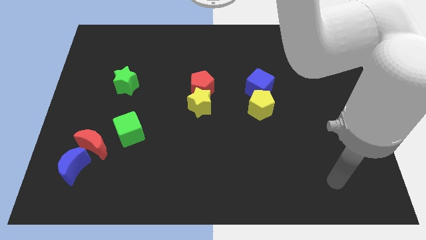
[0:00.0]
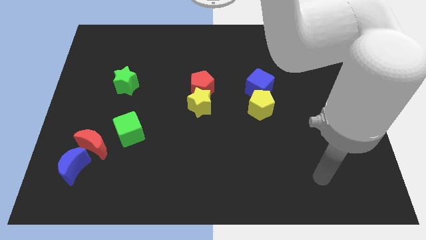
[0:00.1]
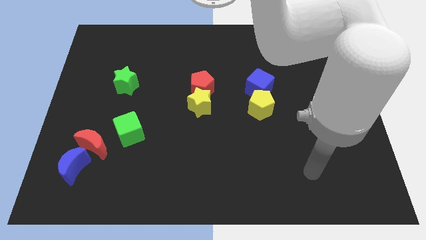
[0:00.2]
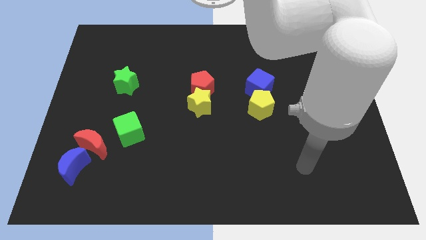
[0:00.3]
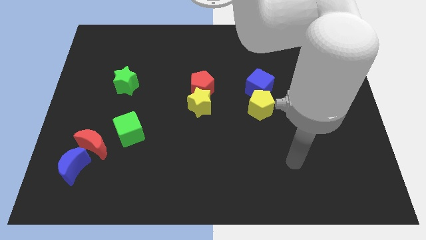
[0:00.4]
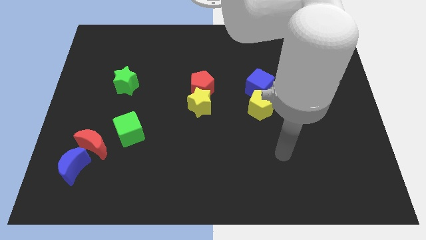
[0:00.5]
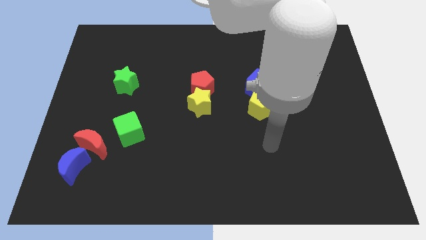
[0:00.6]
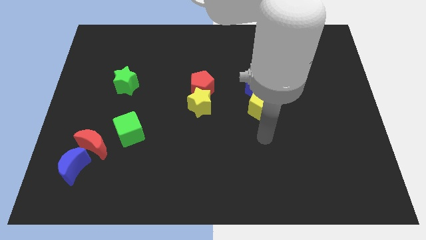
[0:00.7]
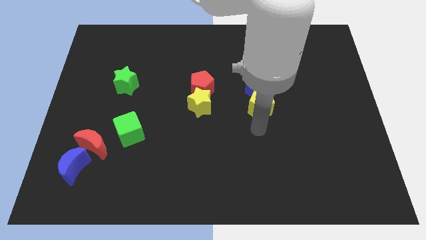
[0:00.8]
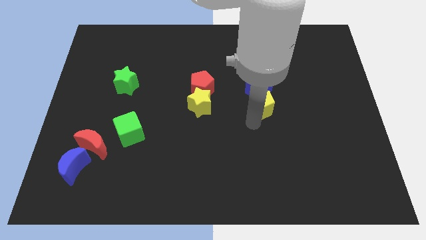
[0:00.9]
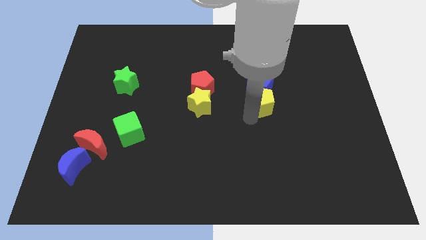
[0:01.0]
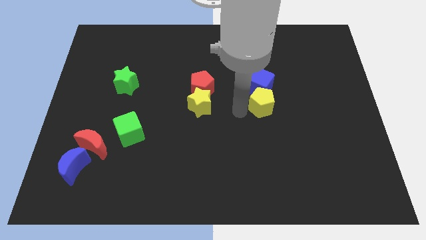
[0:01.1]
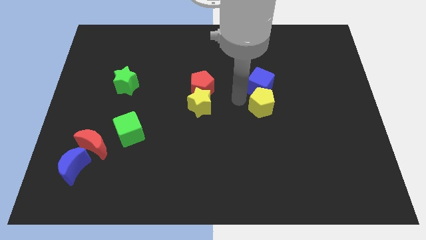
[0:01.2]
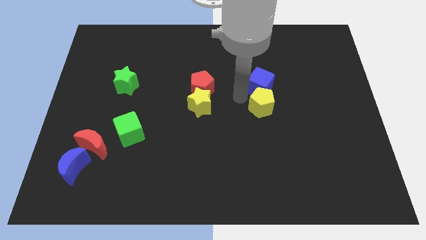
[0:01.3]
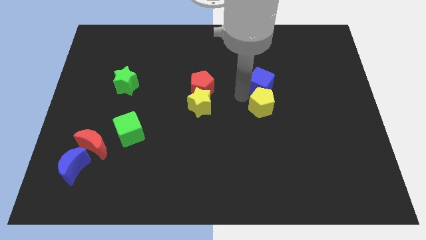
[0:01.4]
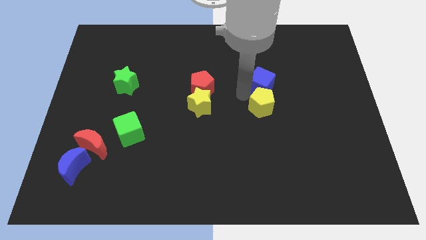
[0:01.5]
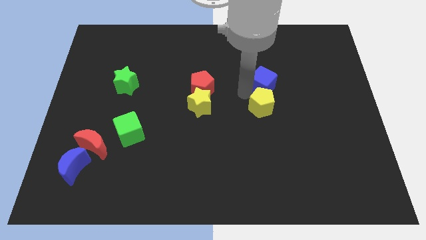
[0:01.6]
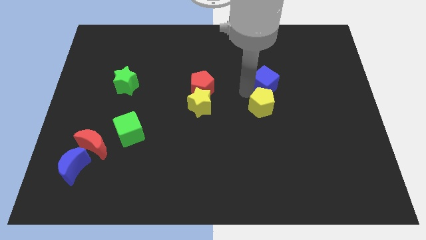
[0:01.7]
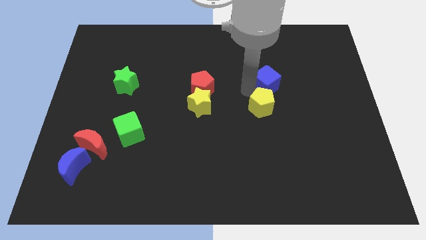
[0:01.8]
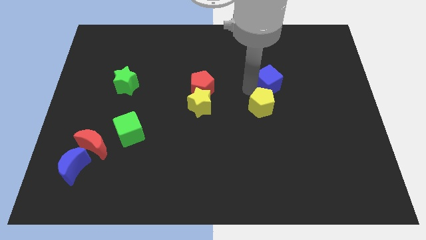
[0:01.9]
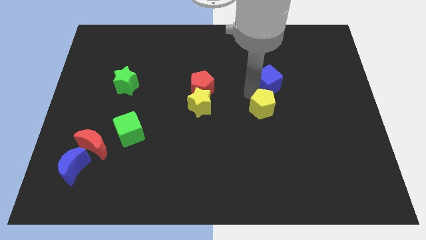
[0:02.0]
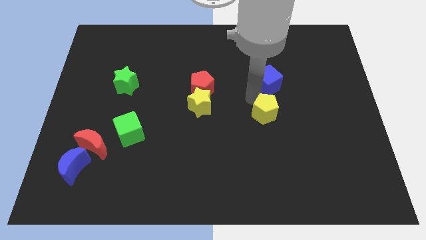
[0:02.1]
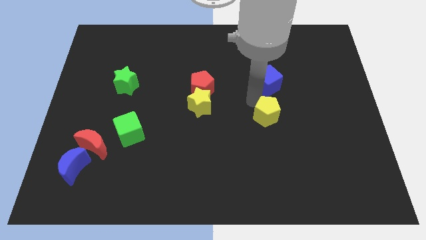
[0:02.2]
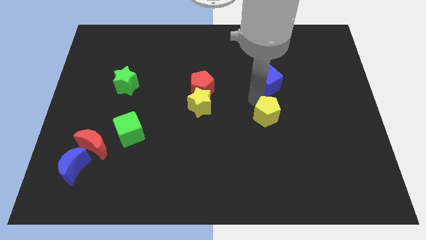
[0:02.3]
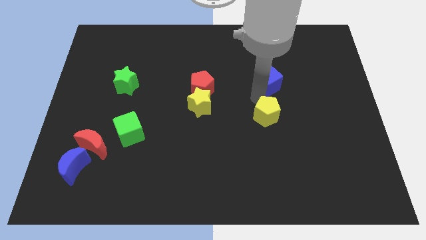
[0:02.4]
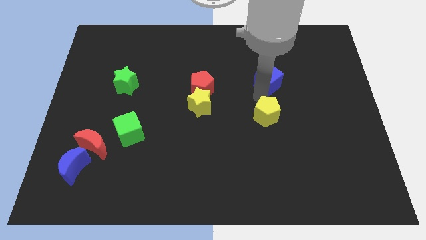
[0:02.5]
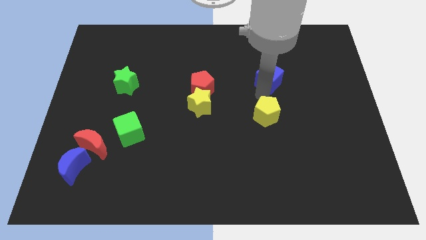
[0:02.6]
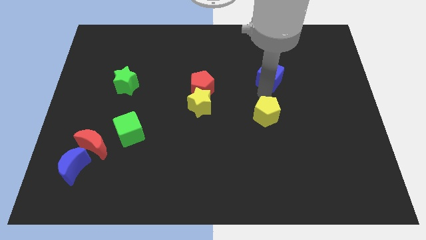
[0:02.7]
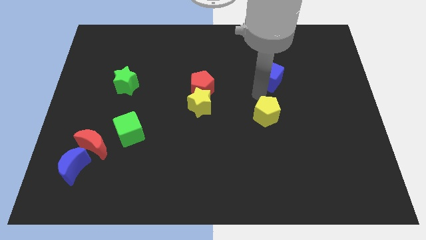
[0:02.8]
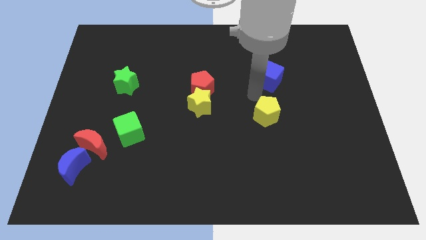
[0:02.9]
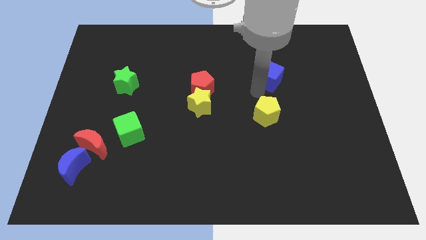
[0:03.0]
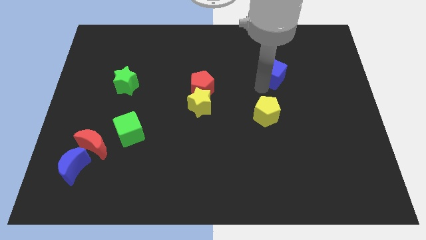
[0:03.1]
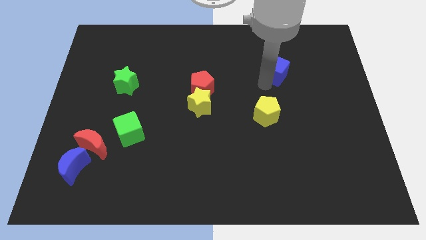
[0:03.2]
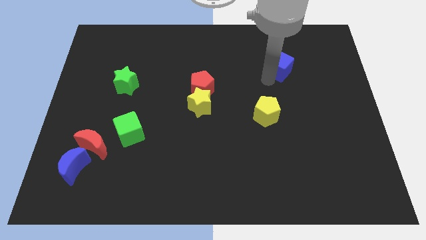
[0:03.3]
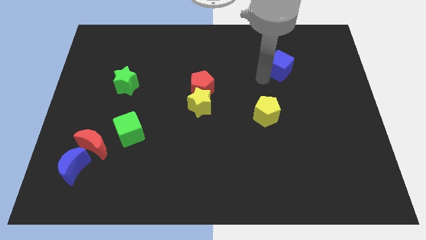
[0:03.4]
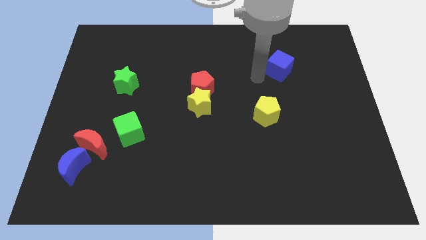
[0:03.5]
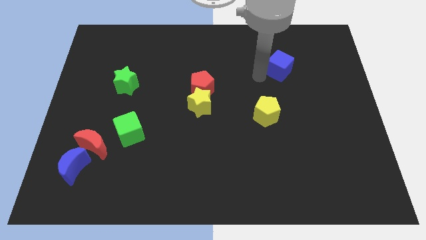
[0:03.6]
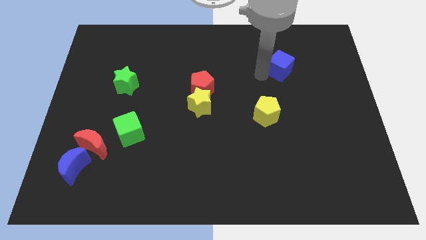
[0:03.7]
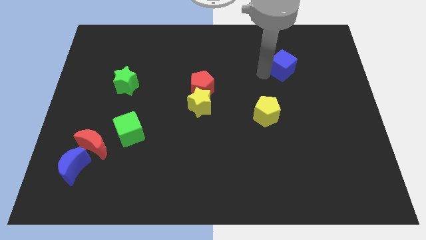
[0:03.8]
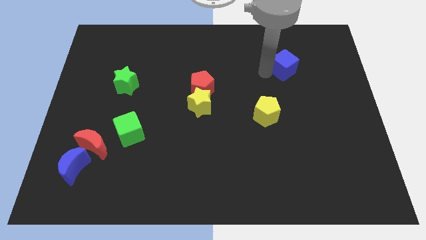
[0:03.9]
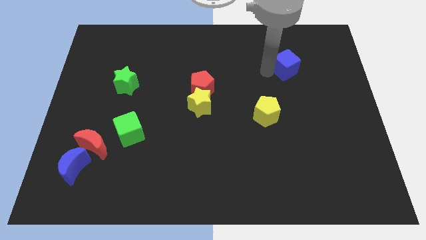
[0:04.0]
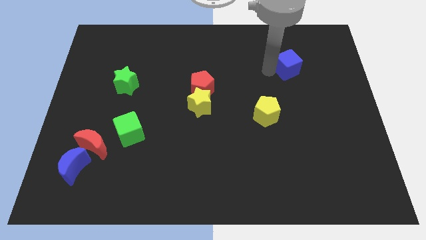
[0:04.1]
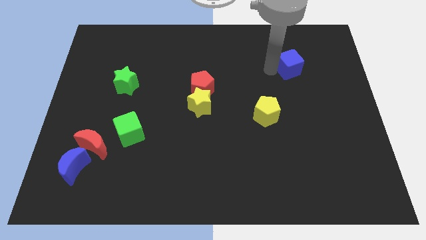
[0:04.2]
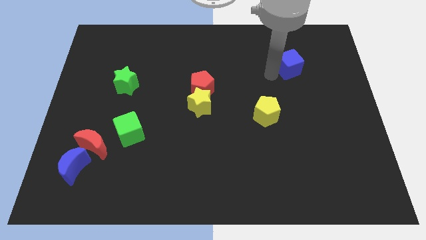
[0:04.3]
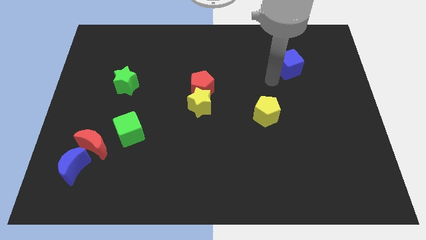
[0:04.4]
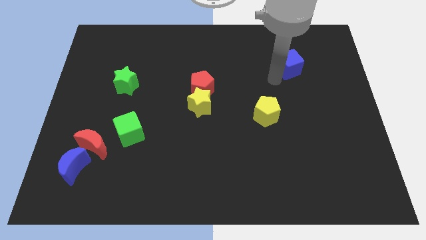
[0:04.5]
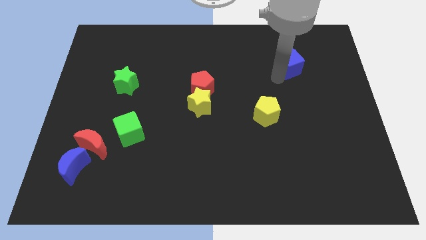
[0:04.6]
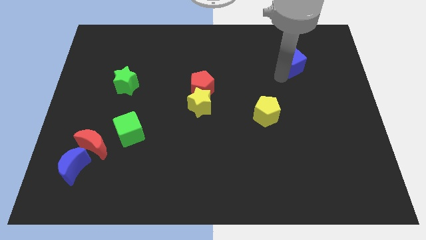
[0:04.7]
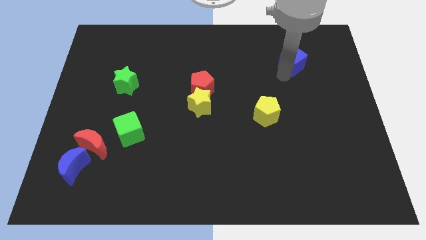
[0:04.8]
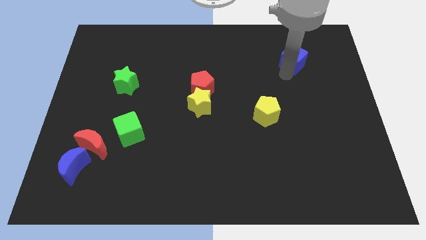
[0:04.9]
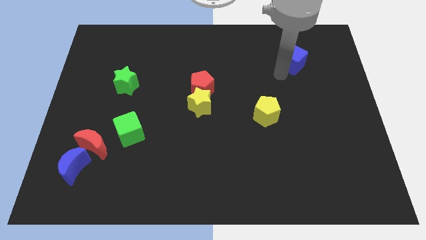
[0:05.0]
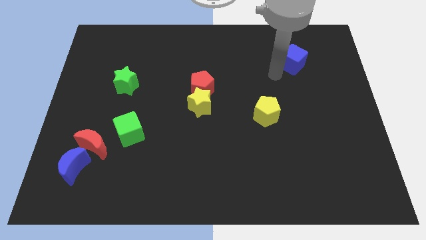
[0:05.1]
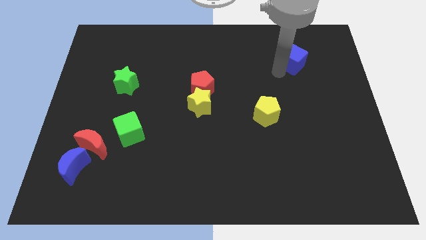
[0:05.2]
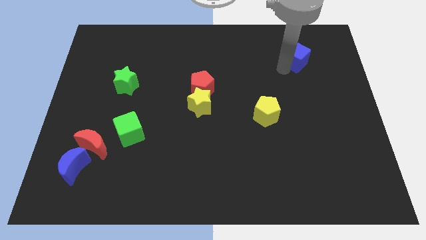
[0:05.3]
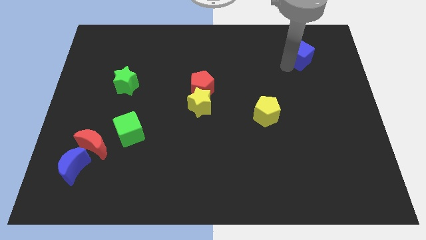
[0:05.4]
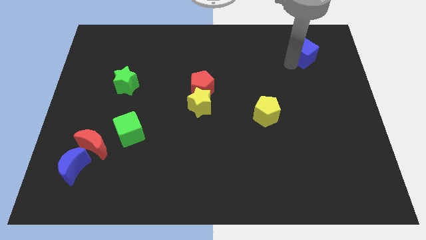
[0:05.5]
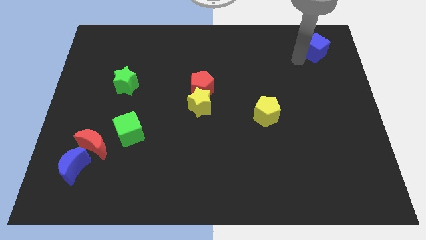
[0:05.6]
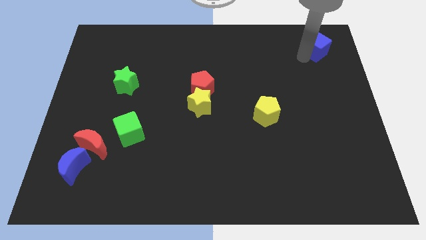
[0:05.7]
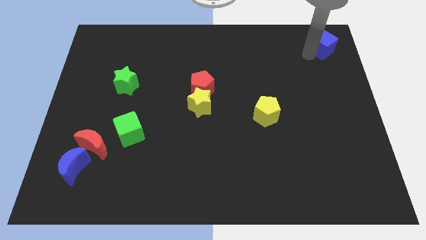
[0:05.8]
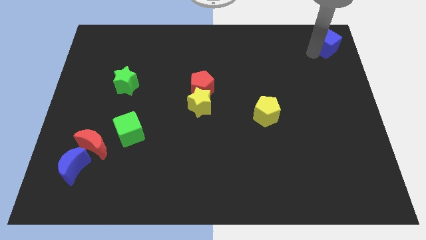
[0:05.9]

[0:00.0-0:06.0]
slide the blue cube to the top right of the board

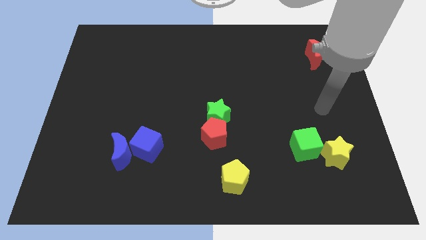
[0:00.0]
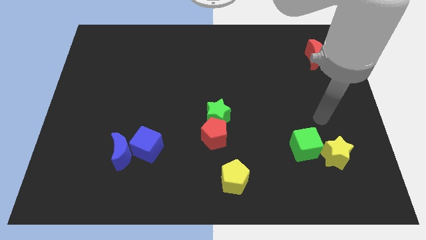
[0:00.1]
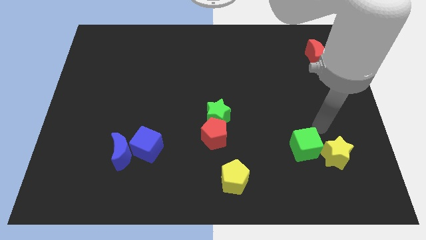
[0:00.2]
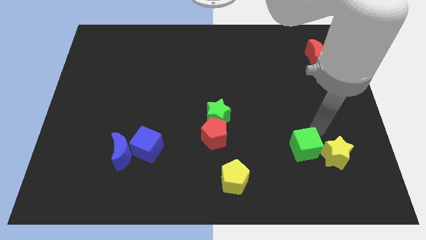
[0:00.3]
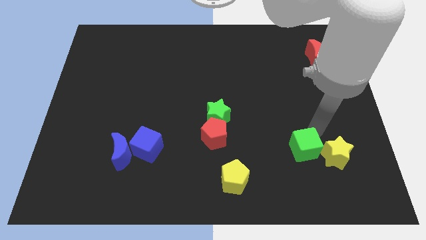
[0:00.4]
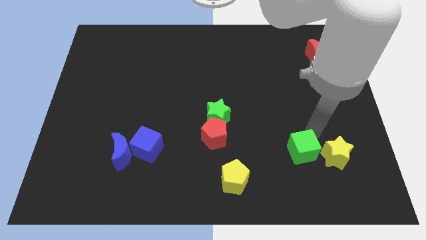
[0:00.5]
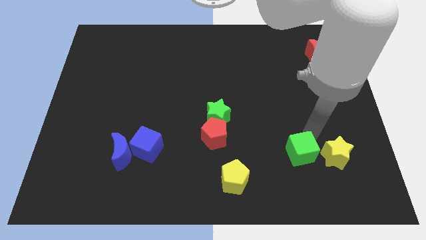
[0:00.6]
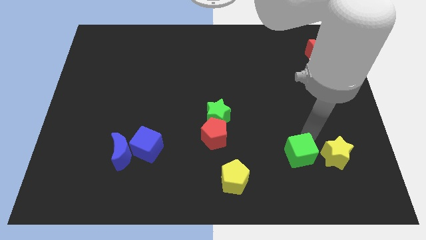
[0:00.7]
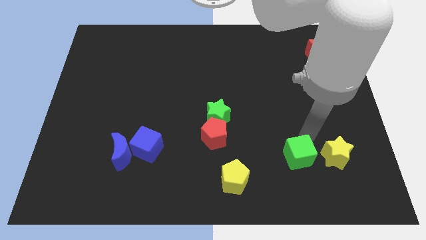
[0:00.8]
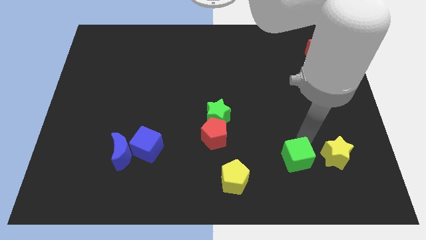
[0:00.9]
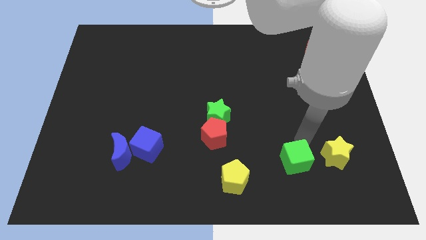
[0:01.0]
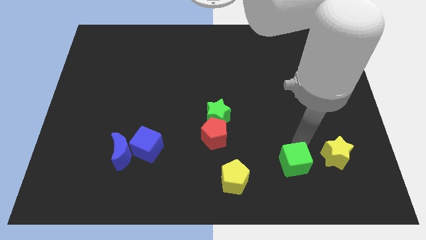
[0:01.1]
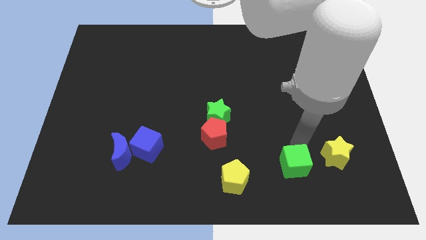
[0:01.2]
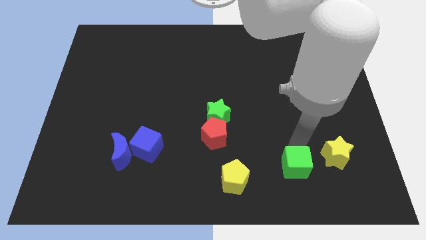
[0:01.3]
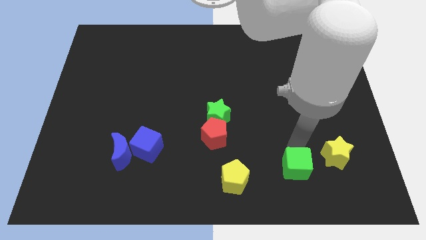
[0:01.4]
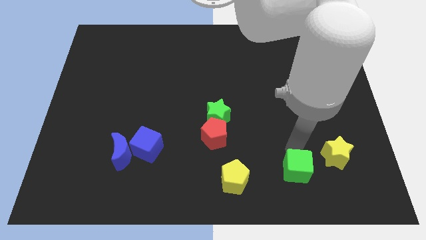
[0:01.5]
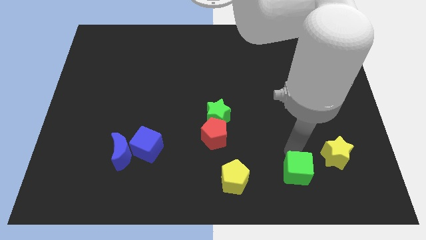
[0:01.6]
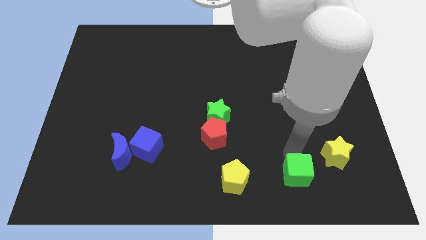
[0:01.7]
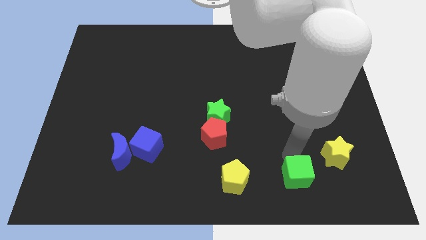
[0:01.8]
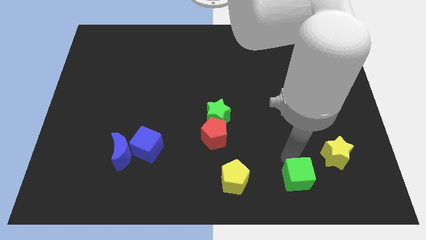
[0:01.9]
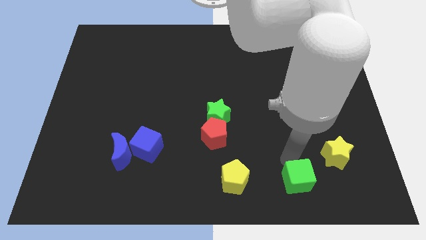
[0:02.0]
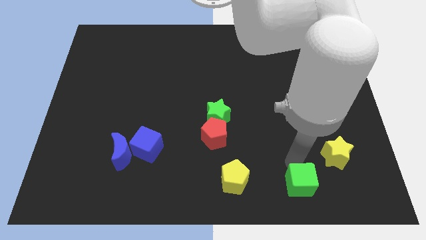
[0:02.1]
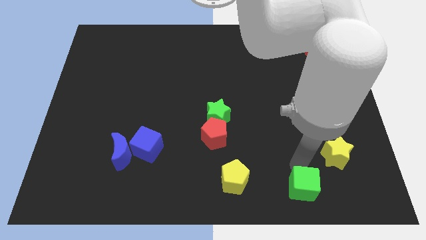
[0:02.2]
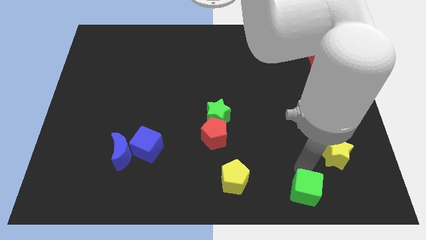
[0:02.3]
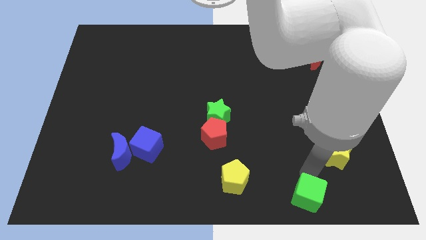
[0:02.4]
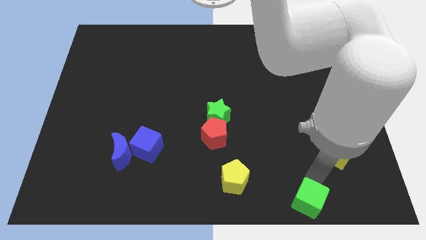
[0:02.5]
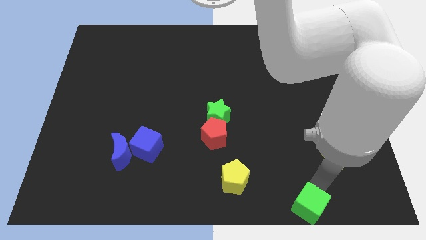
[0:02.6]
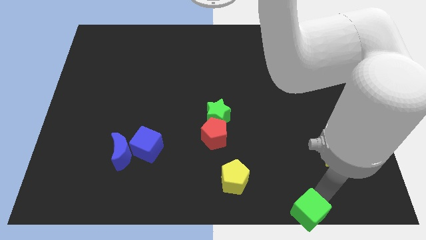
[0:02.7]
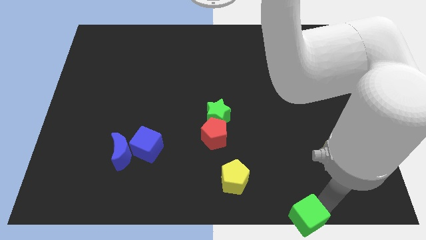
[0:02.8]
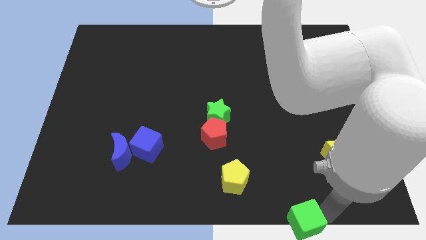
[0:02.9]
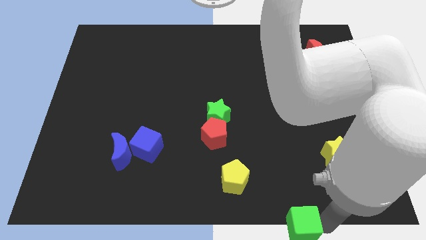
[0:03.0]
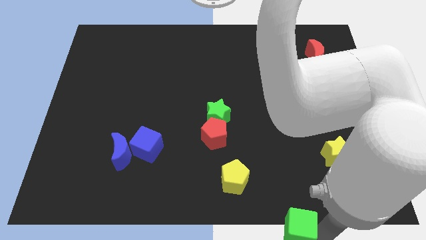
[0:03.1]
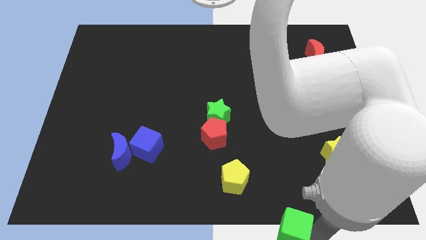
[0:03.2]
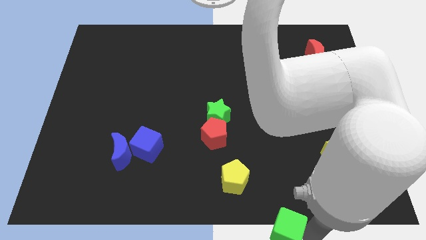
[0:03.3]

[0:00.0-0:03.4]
push the green cube to the bottom side
